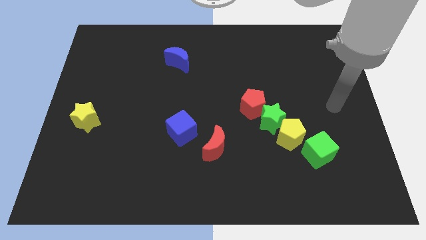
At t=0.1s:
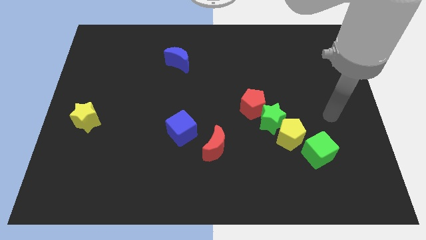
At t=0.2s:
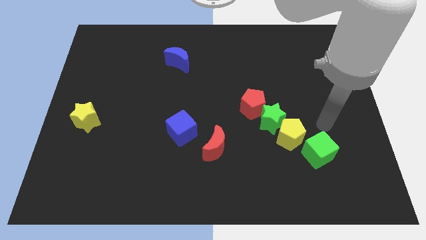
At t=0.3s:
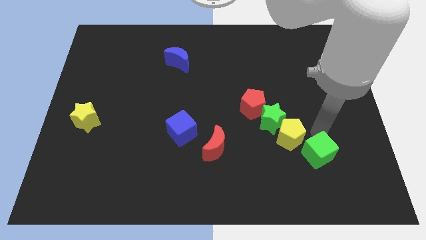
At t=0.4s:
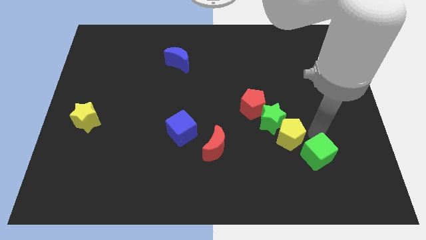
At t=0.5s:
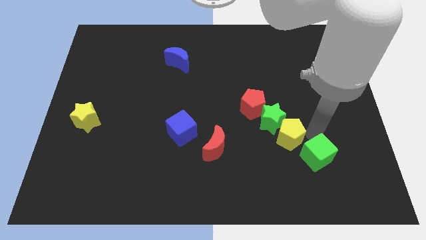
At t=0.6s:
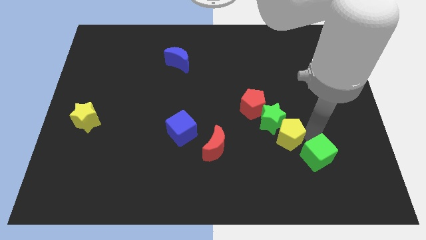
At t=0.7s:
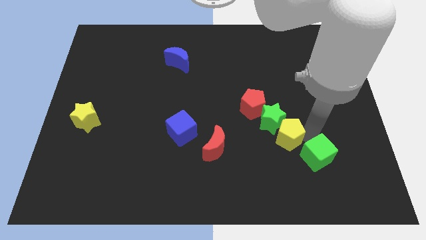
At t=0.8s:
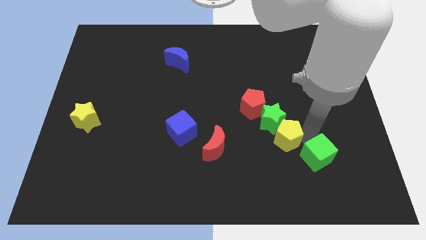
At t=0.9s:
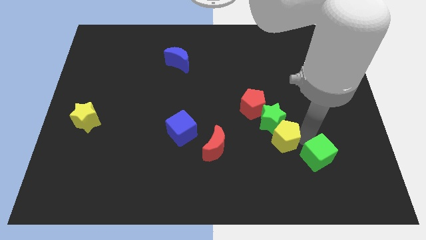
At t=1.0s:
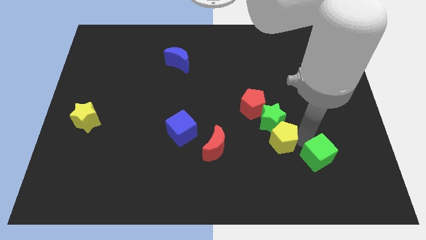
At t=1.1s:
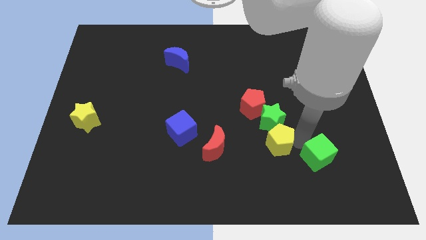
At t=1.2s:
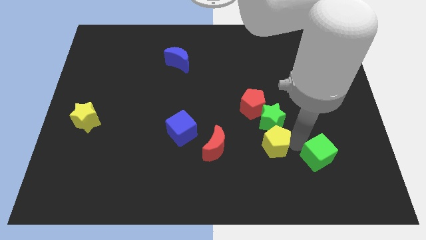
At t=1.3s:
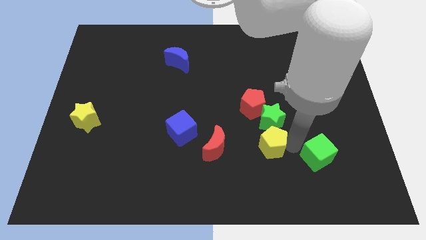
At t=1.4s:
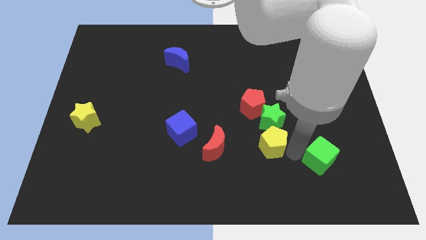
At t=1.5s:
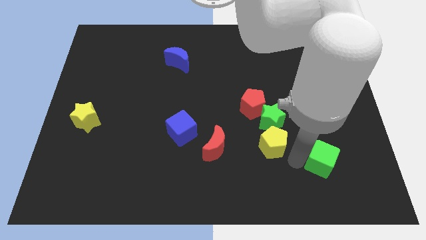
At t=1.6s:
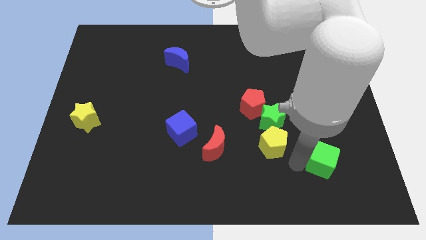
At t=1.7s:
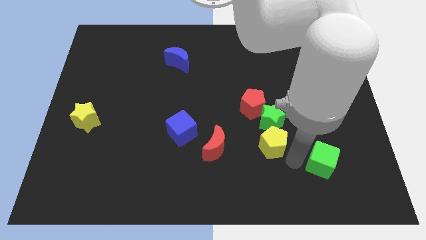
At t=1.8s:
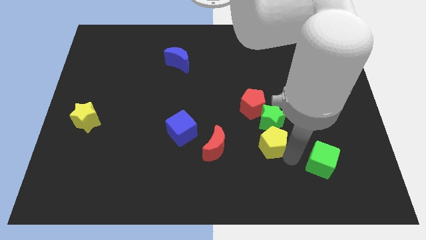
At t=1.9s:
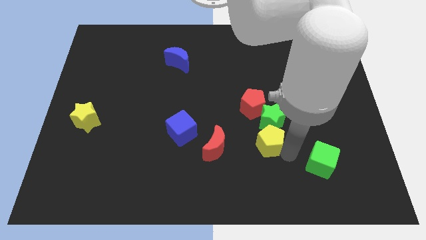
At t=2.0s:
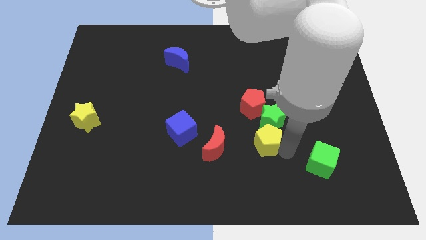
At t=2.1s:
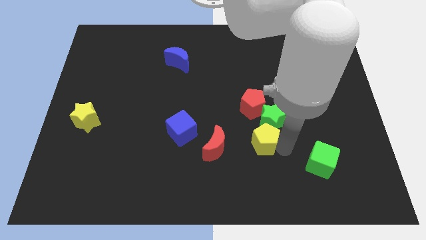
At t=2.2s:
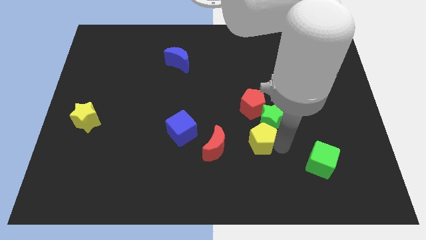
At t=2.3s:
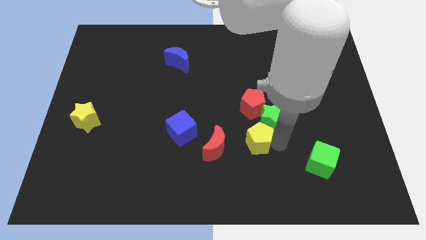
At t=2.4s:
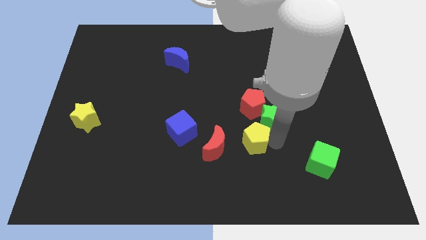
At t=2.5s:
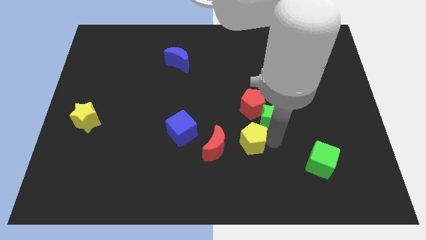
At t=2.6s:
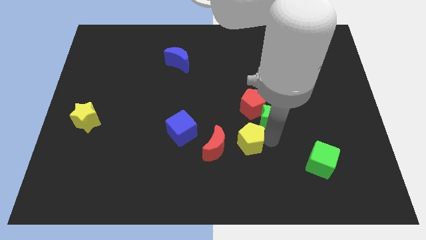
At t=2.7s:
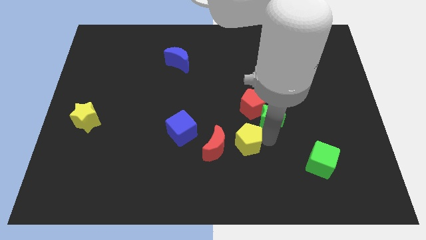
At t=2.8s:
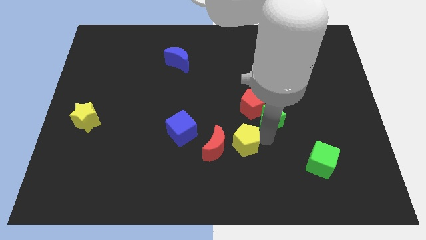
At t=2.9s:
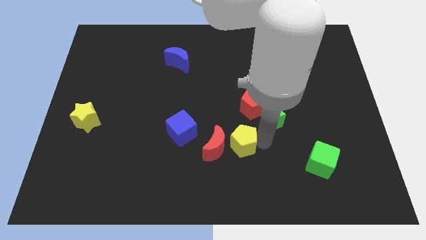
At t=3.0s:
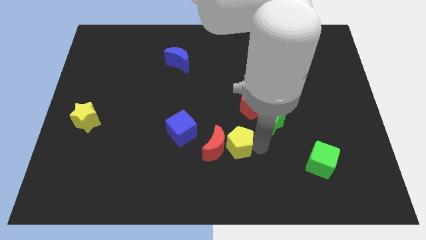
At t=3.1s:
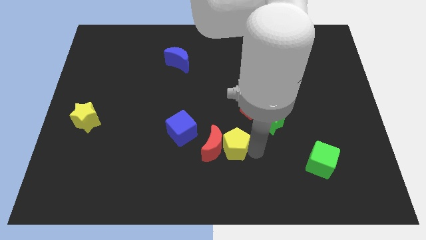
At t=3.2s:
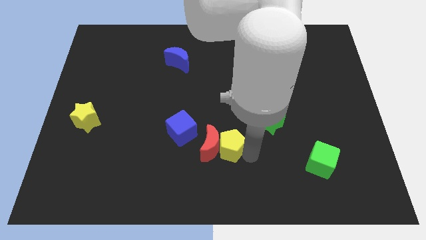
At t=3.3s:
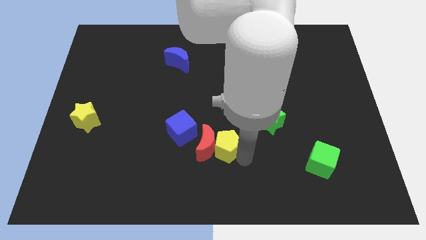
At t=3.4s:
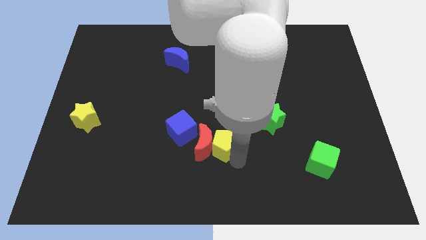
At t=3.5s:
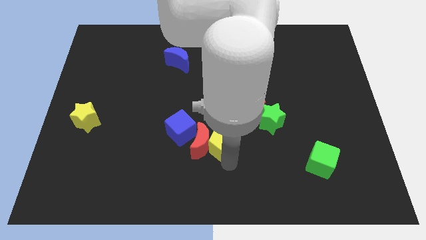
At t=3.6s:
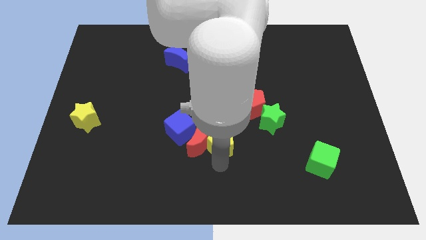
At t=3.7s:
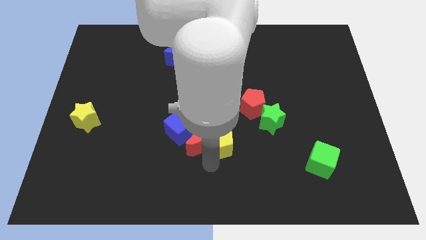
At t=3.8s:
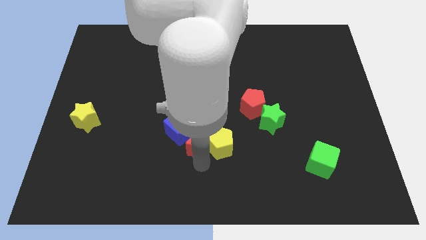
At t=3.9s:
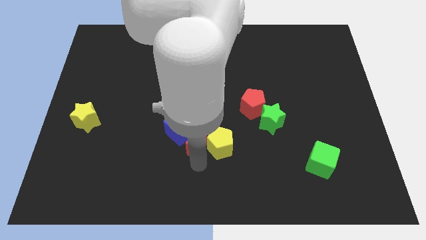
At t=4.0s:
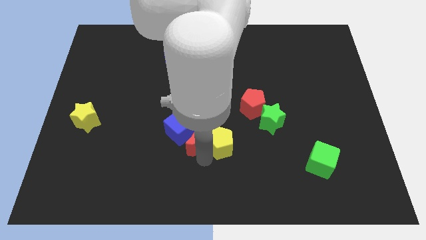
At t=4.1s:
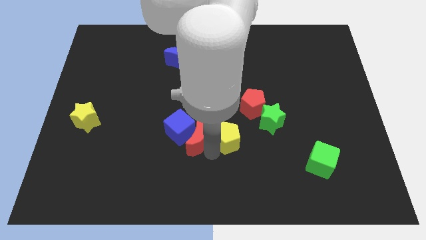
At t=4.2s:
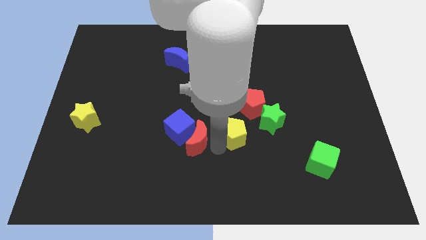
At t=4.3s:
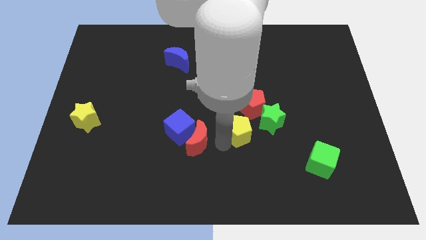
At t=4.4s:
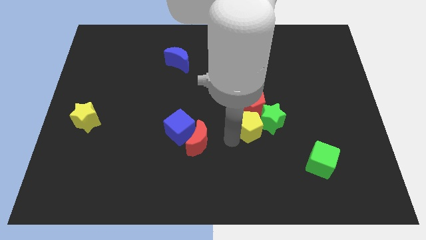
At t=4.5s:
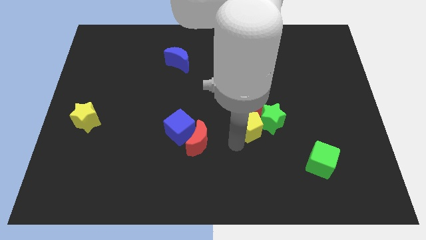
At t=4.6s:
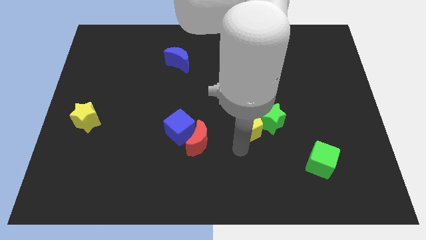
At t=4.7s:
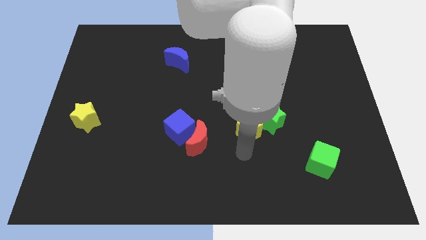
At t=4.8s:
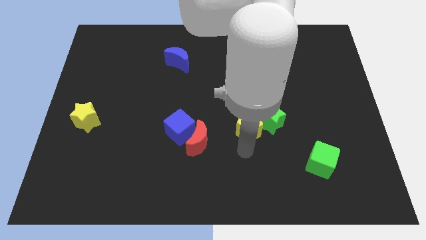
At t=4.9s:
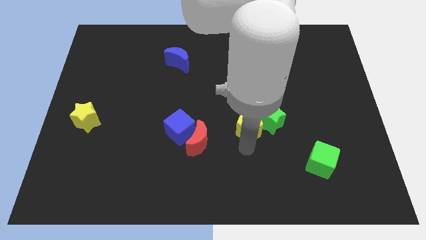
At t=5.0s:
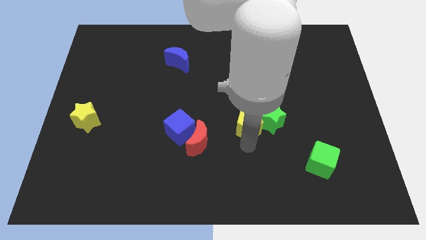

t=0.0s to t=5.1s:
put the yellow pentagon to the red pentagon

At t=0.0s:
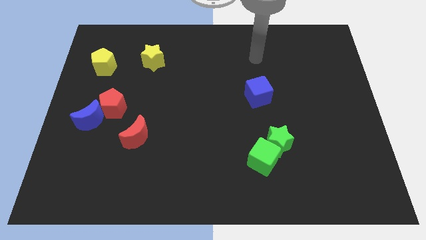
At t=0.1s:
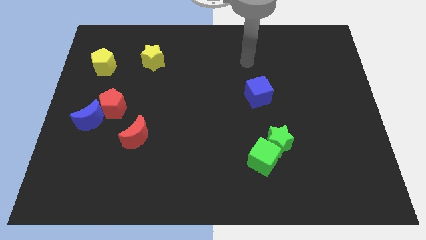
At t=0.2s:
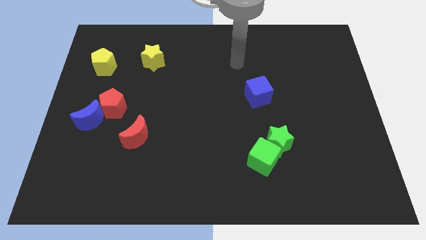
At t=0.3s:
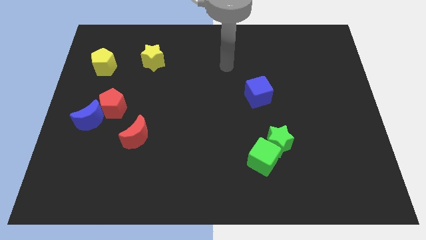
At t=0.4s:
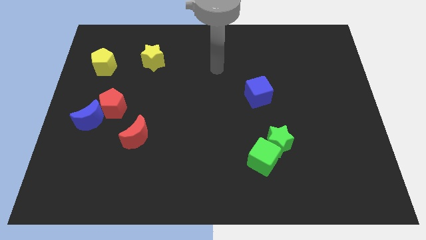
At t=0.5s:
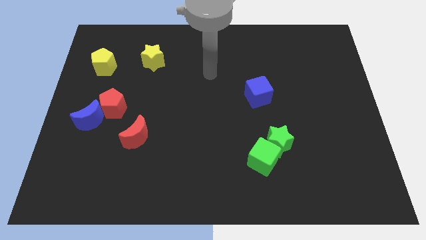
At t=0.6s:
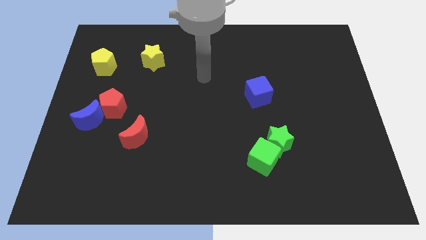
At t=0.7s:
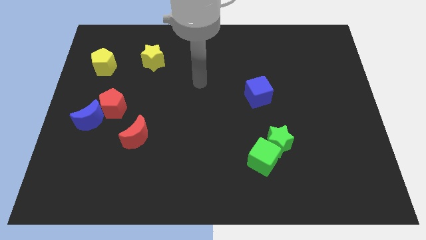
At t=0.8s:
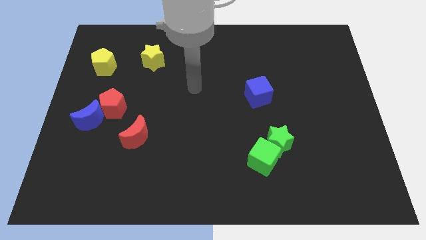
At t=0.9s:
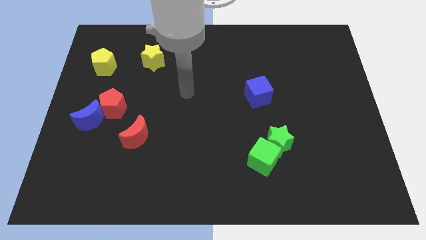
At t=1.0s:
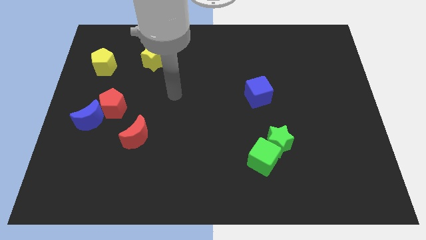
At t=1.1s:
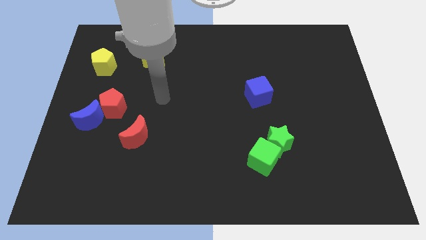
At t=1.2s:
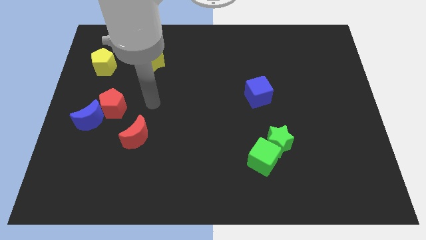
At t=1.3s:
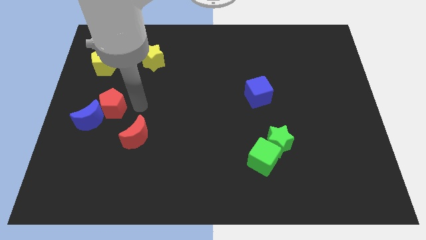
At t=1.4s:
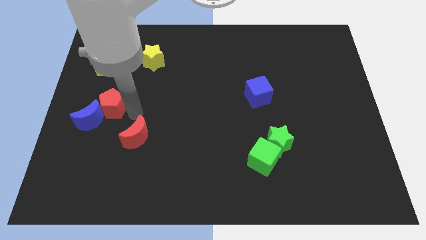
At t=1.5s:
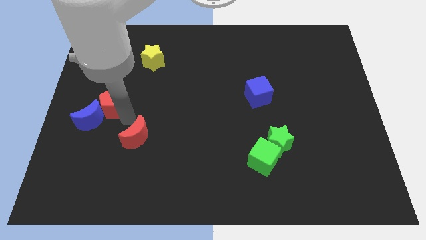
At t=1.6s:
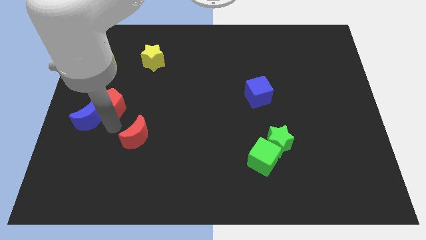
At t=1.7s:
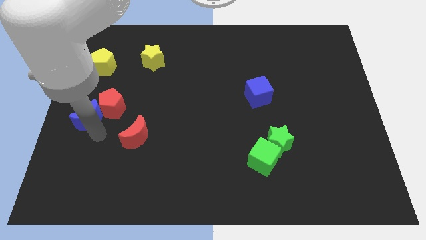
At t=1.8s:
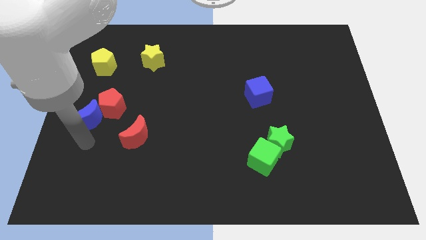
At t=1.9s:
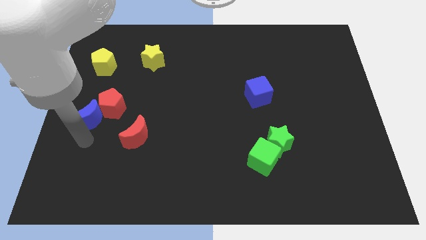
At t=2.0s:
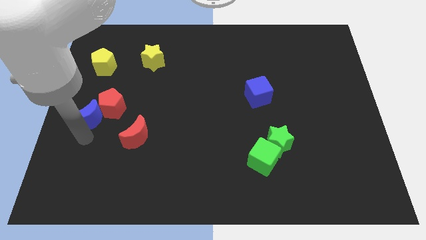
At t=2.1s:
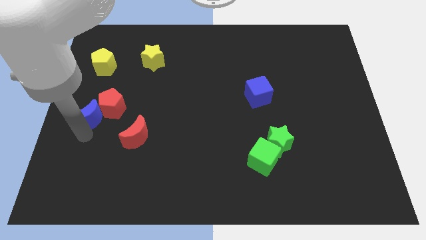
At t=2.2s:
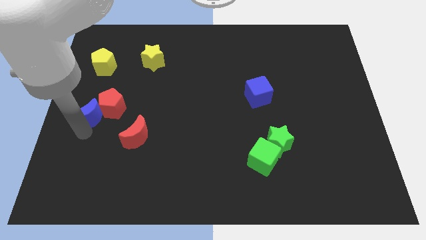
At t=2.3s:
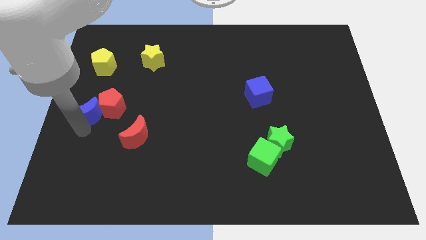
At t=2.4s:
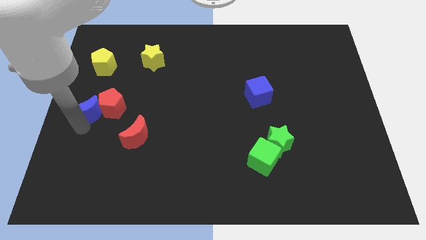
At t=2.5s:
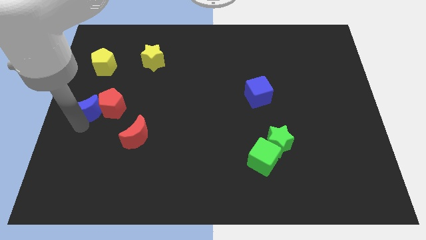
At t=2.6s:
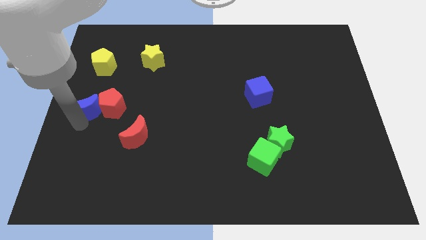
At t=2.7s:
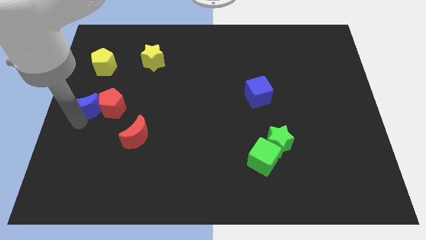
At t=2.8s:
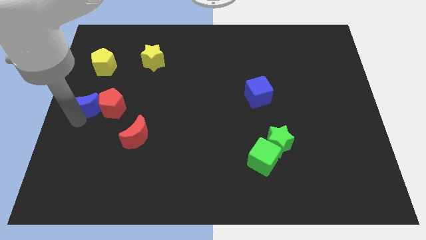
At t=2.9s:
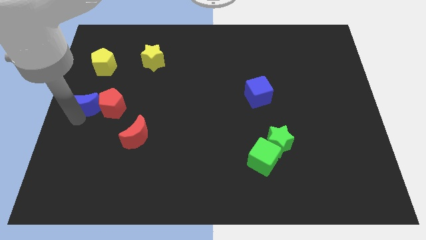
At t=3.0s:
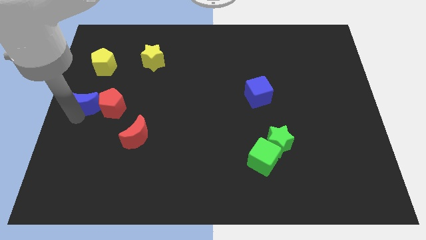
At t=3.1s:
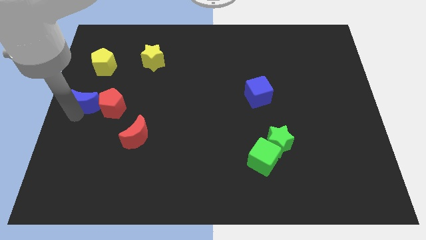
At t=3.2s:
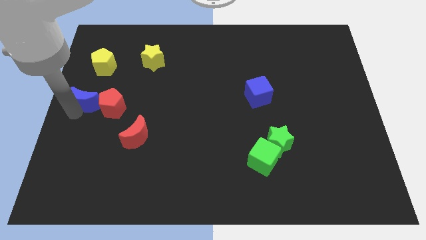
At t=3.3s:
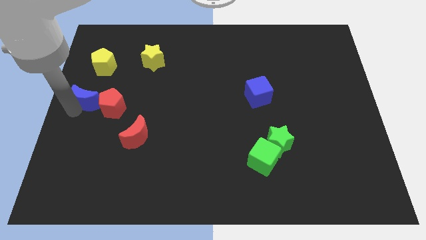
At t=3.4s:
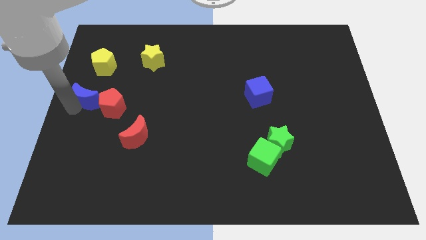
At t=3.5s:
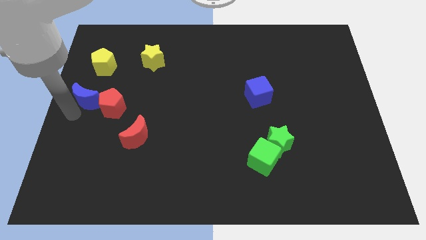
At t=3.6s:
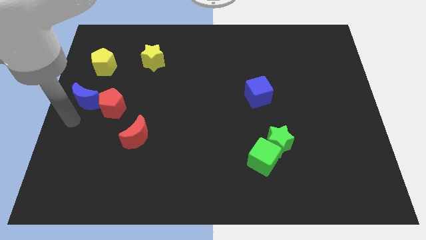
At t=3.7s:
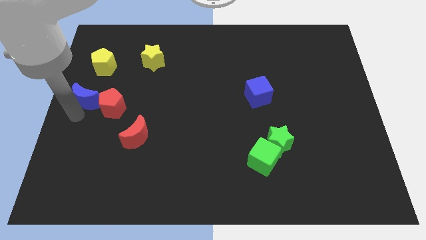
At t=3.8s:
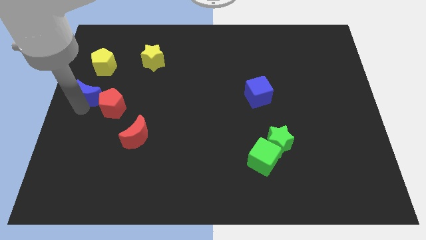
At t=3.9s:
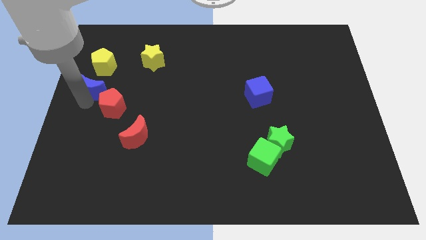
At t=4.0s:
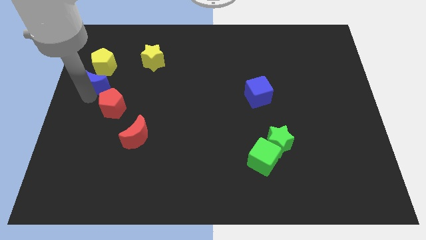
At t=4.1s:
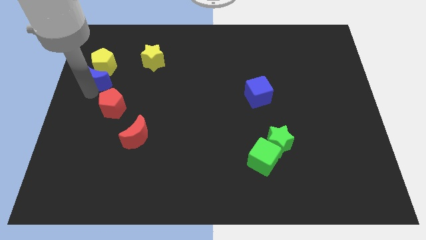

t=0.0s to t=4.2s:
slide the blue moon towards the yellow pentagon
